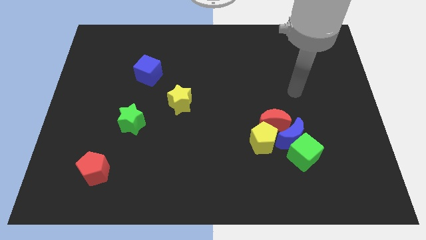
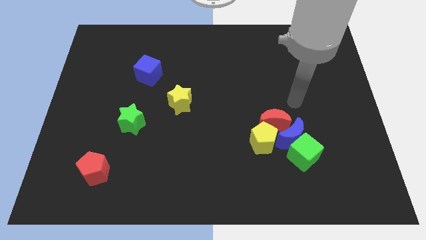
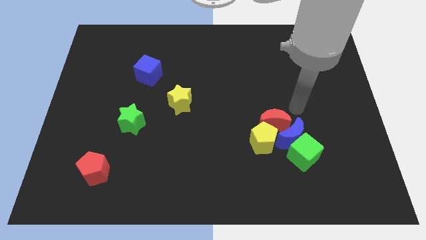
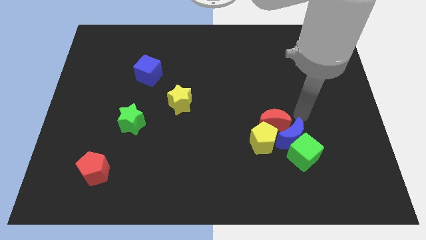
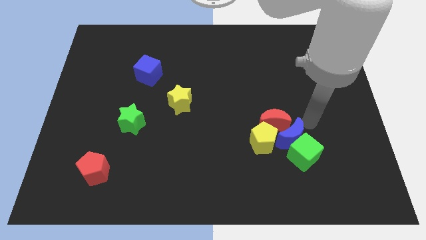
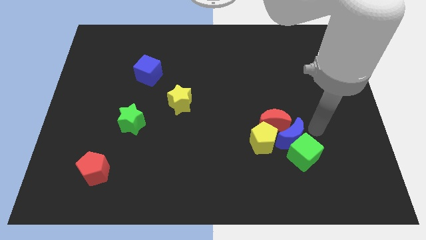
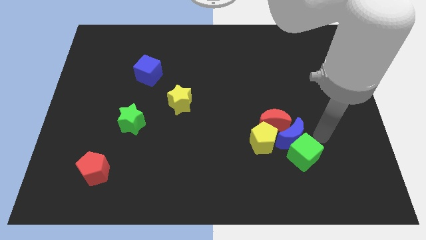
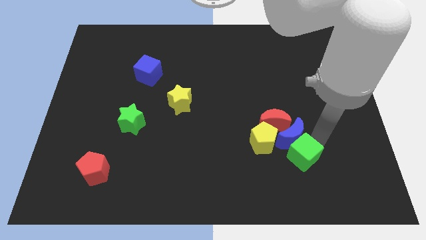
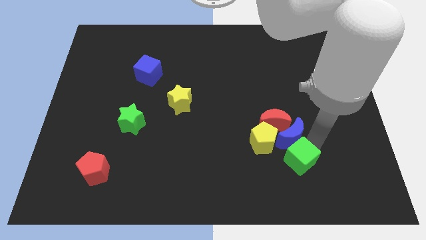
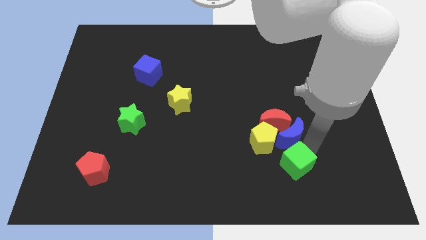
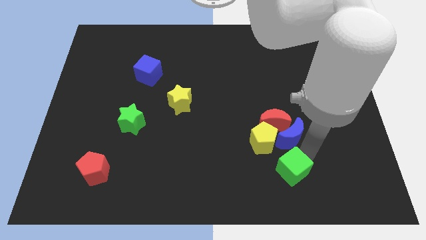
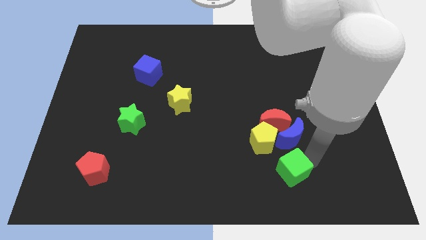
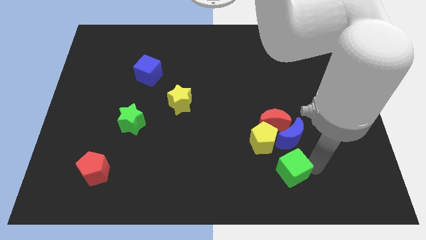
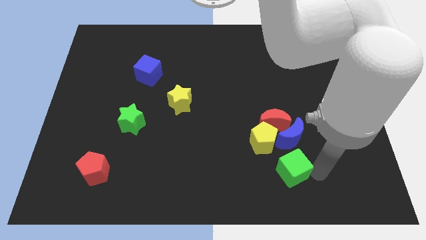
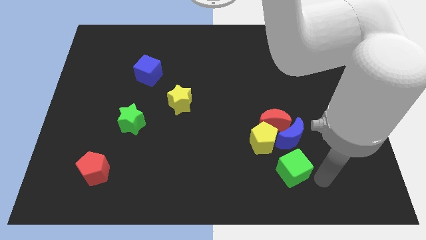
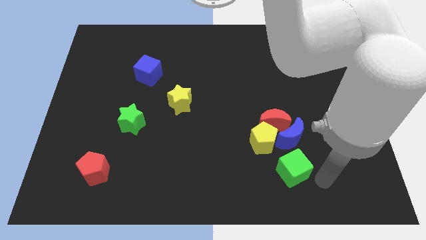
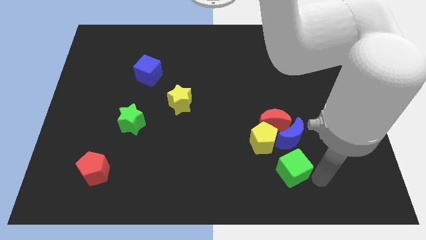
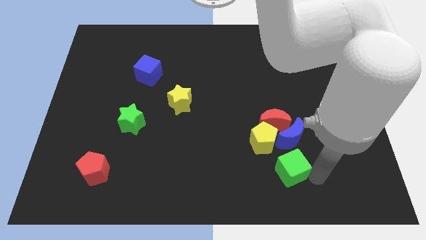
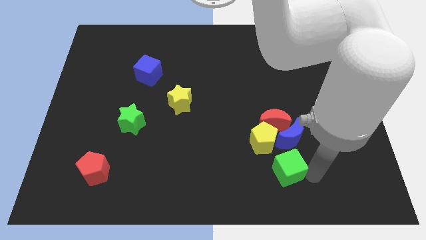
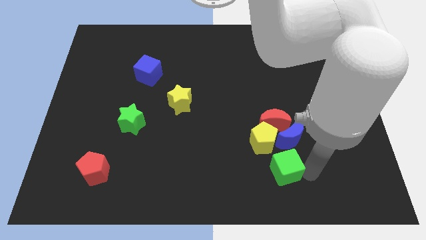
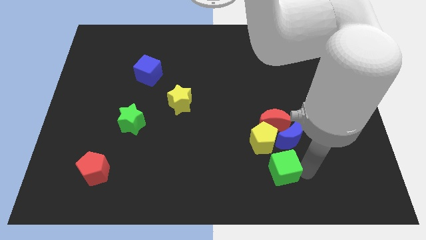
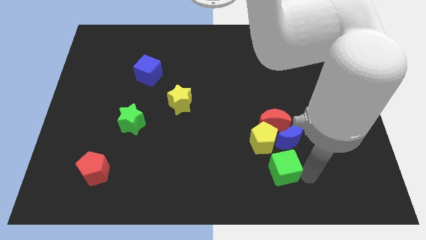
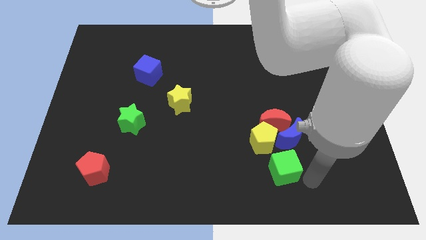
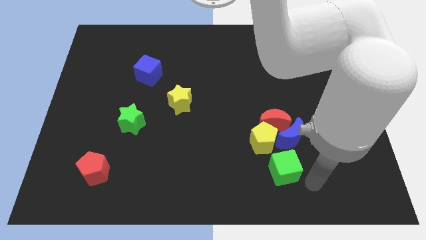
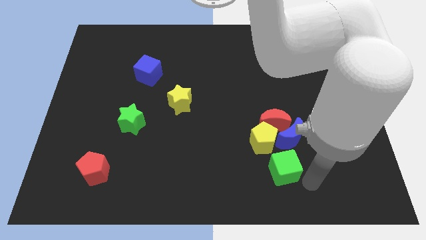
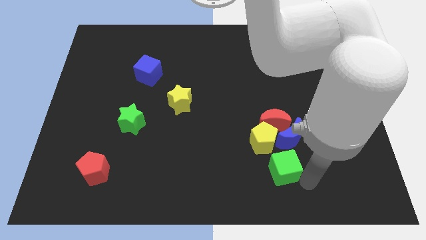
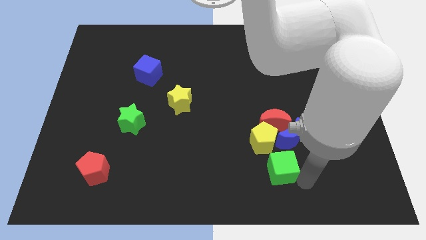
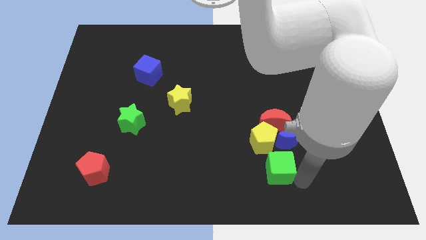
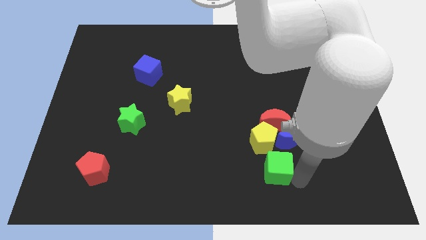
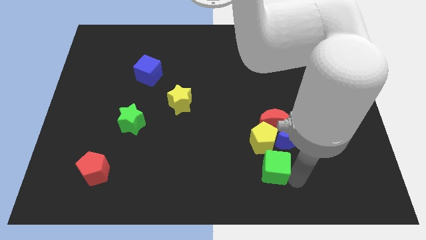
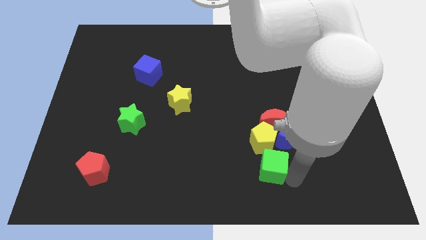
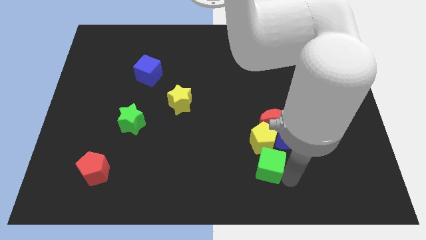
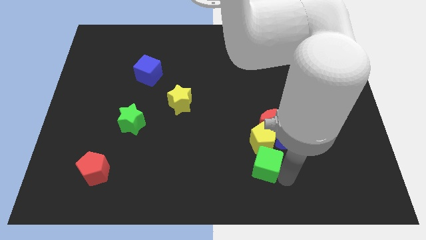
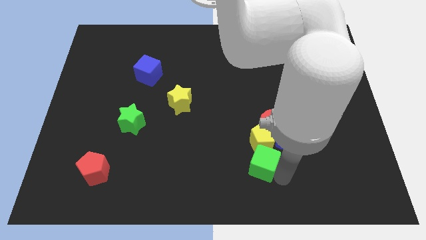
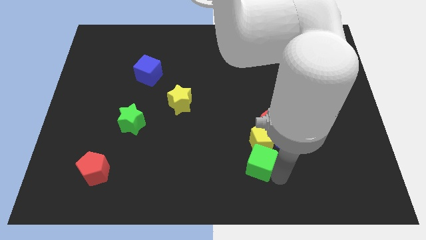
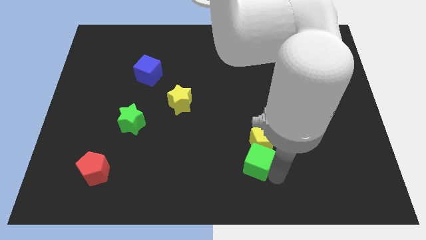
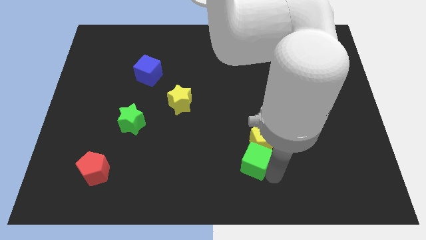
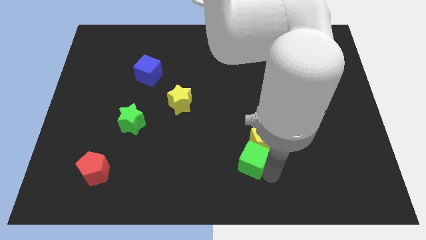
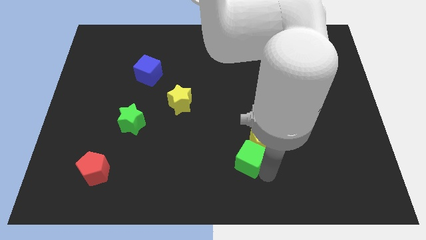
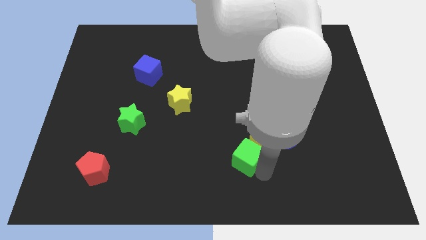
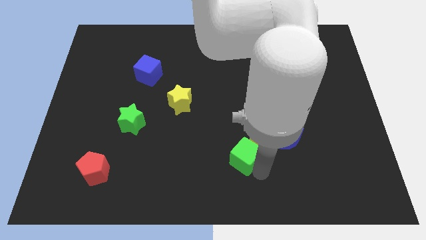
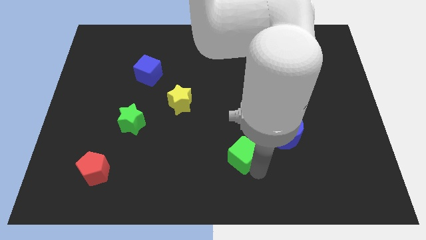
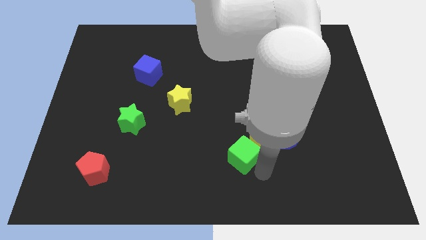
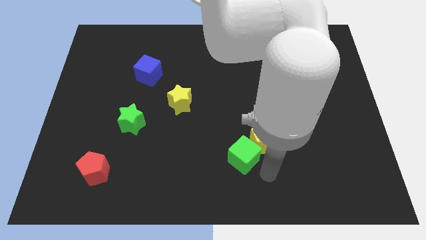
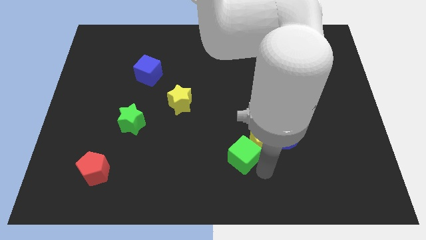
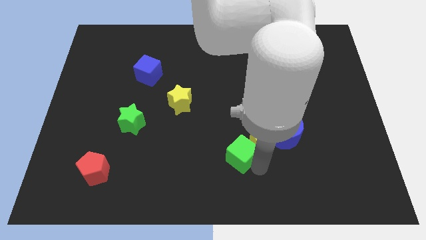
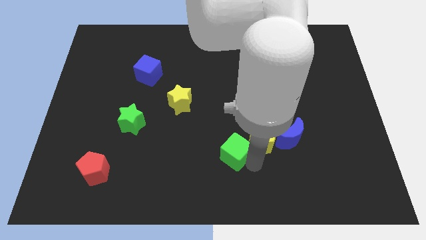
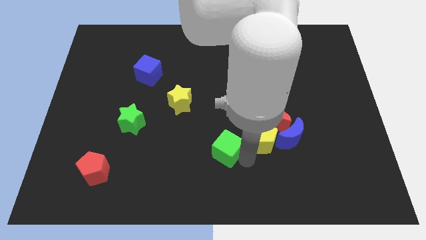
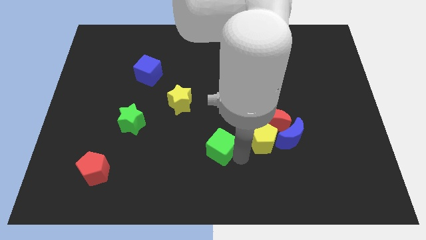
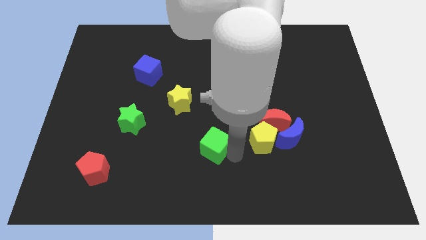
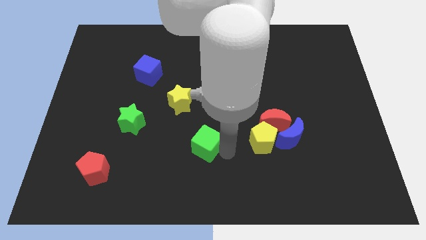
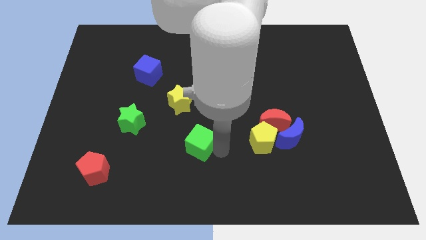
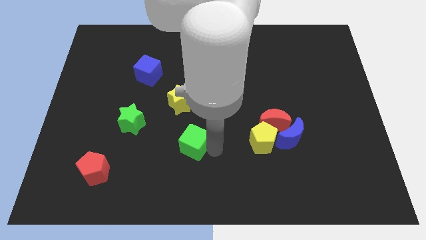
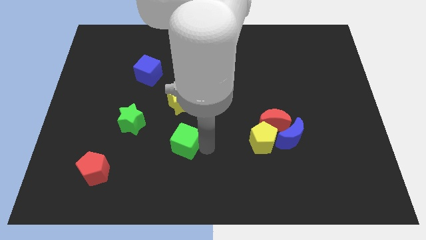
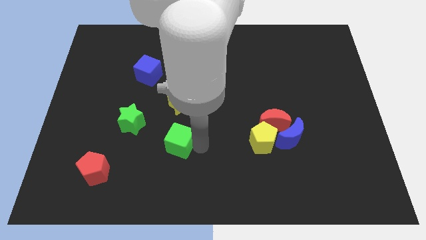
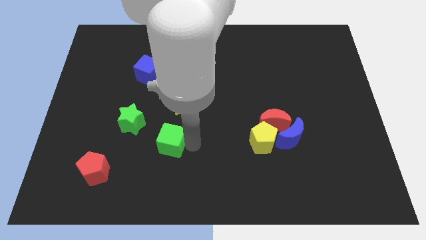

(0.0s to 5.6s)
put the green cube to the bottom right side of the green star

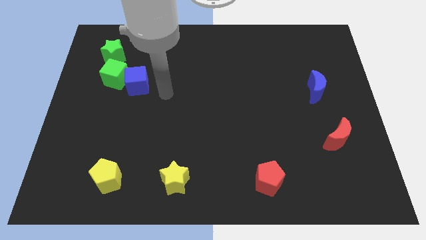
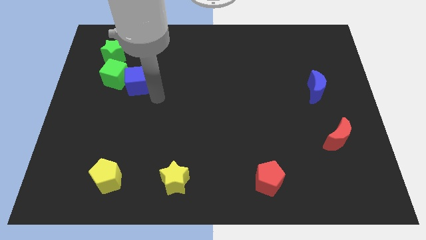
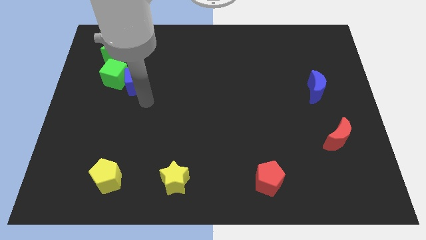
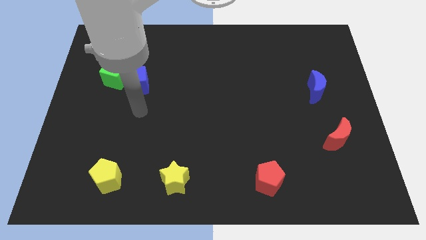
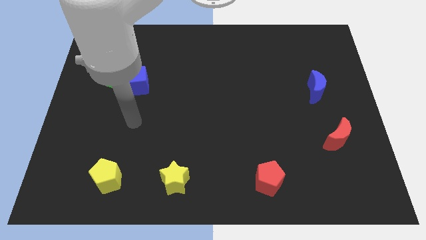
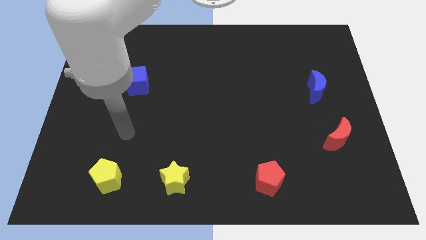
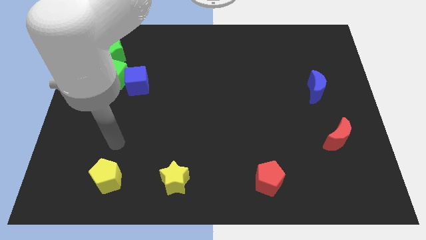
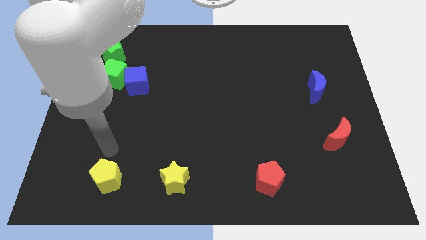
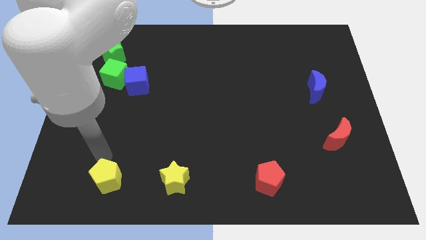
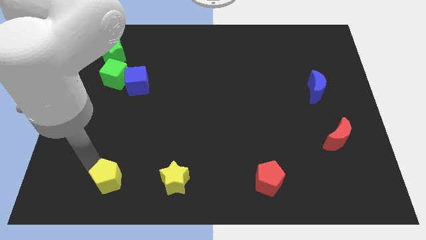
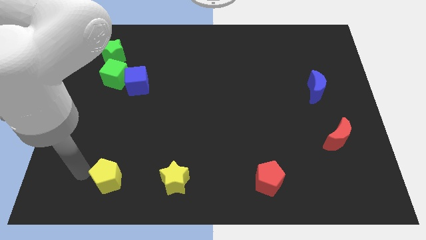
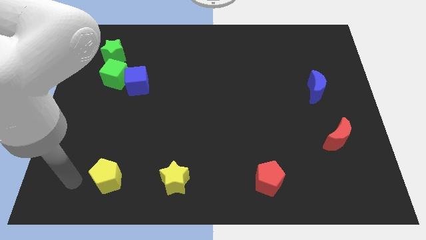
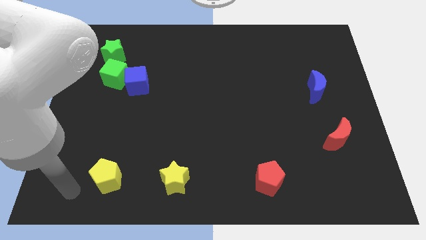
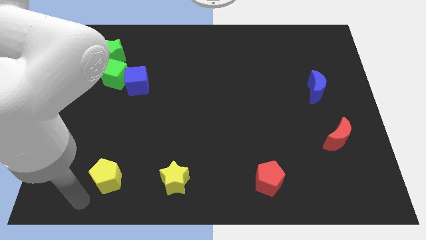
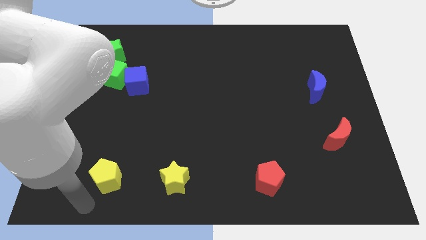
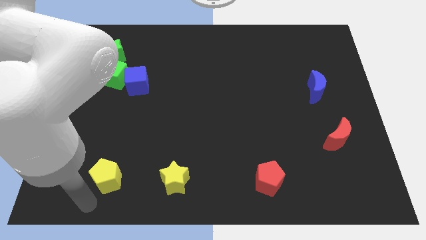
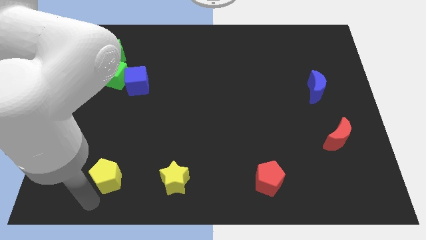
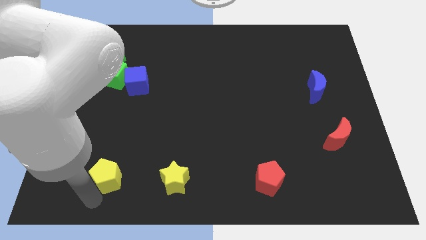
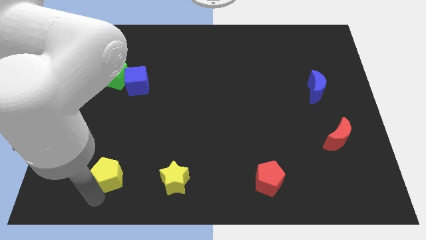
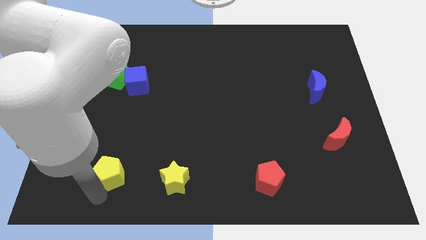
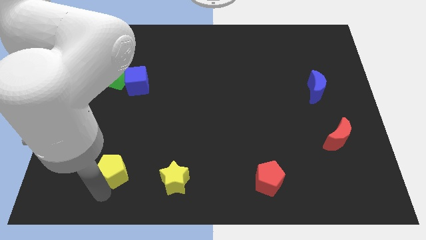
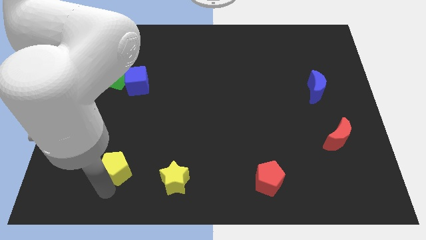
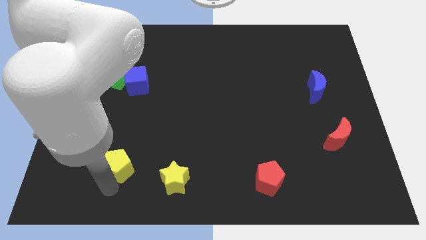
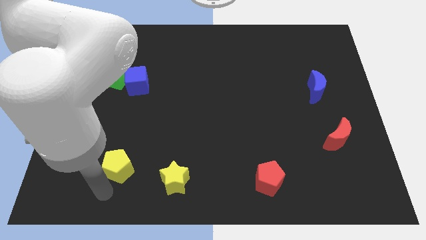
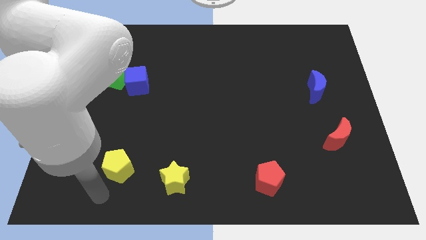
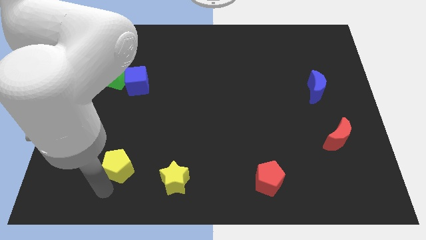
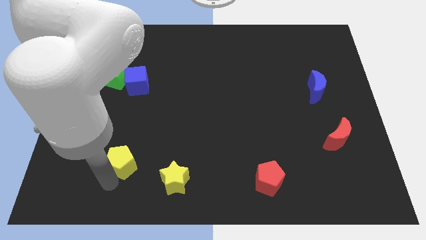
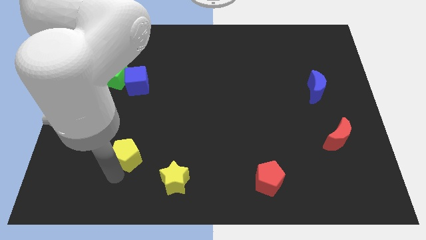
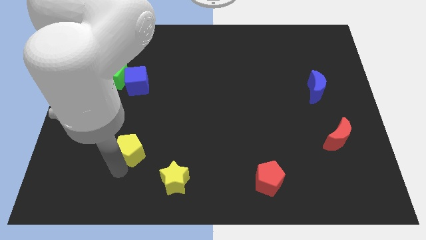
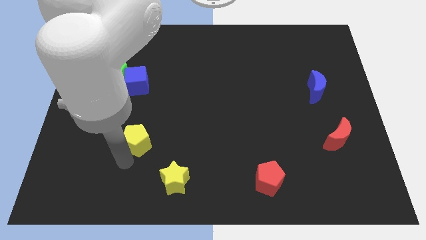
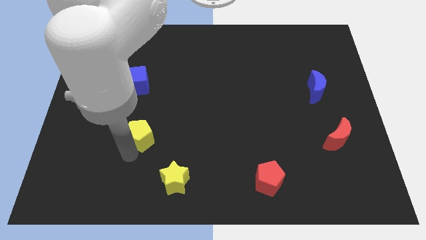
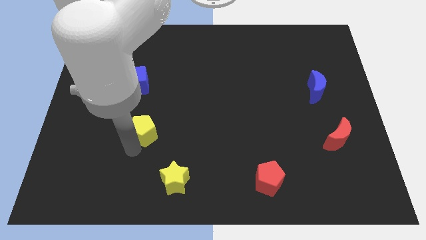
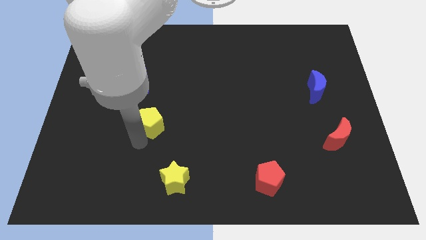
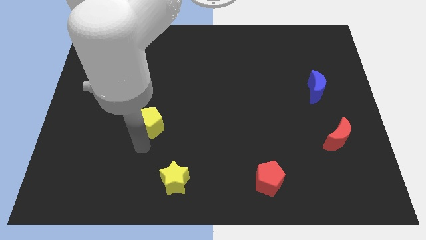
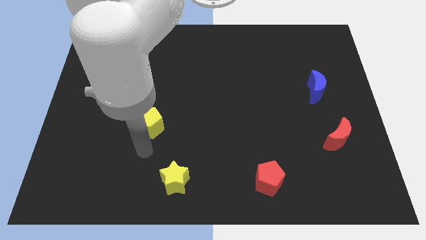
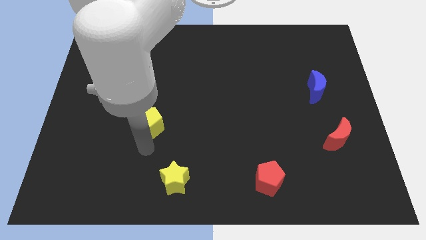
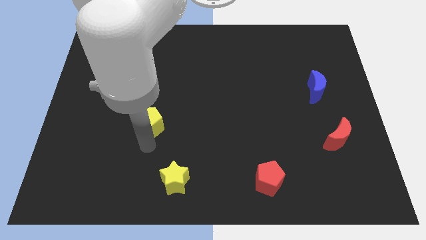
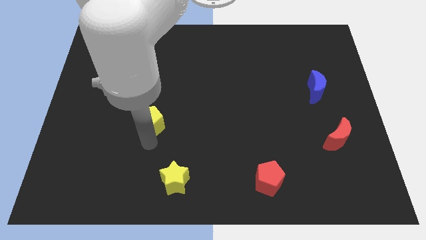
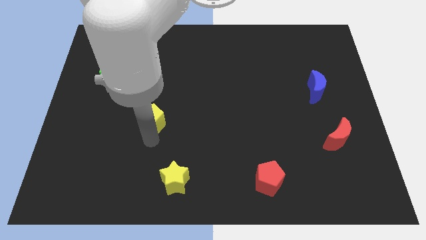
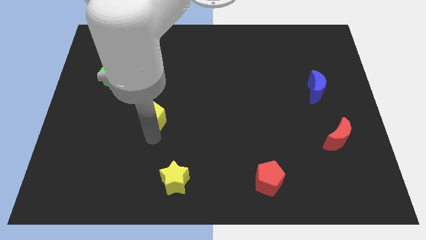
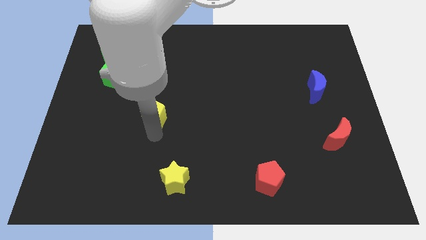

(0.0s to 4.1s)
put the yellow pentagon to the bottom right side of the blue cube
